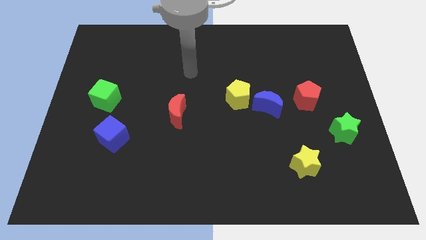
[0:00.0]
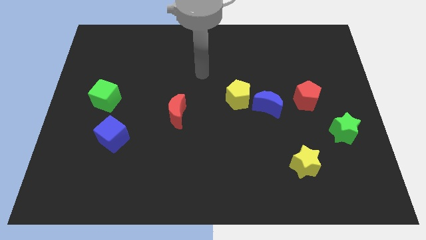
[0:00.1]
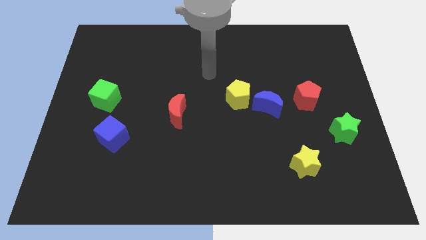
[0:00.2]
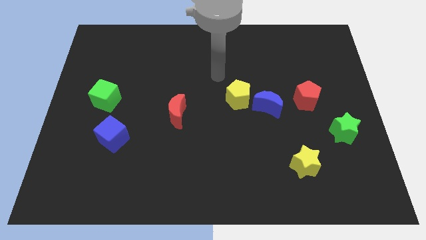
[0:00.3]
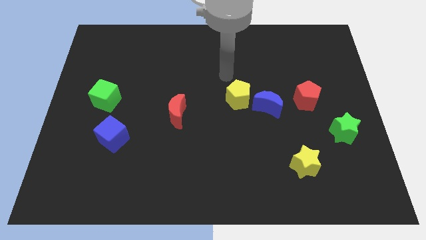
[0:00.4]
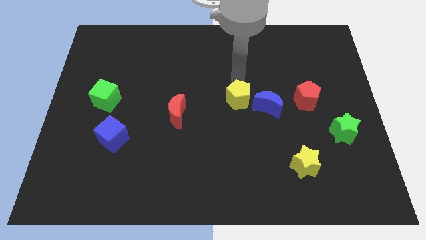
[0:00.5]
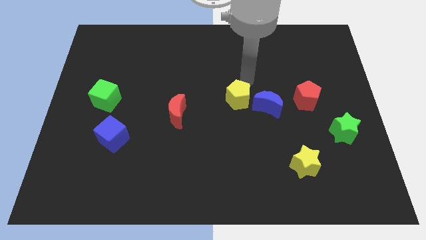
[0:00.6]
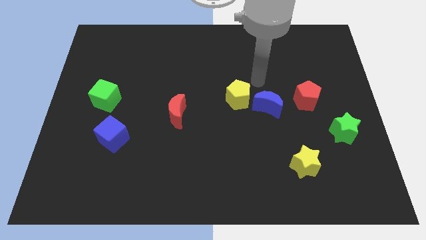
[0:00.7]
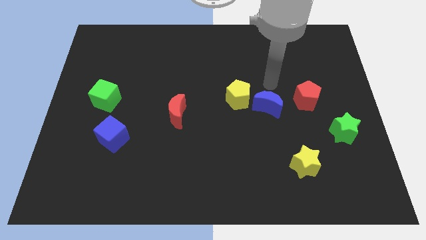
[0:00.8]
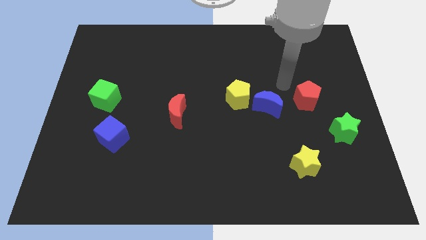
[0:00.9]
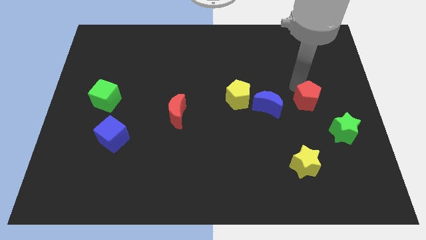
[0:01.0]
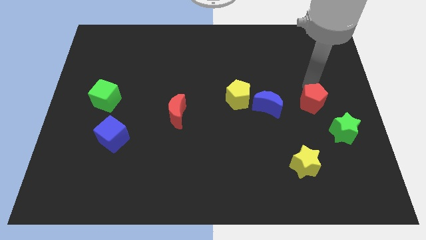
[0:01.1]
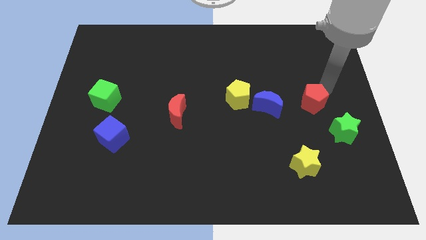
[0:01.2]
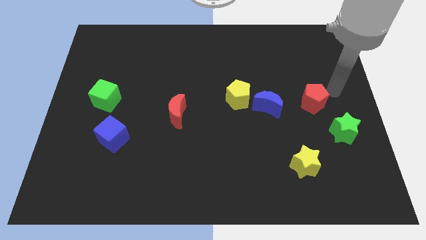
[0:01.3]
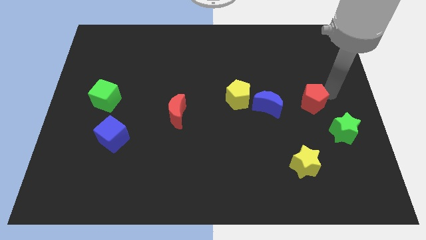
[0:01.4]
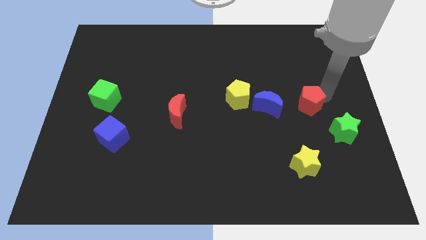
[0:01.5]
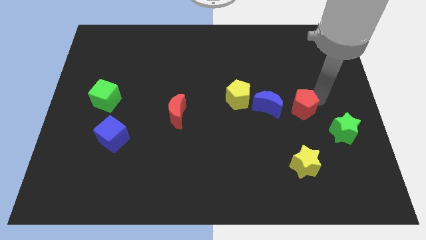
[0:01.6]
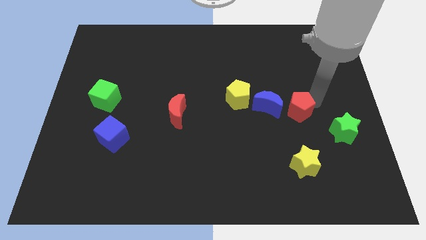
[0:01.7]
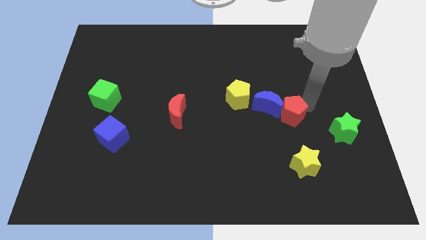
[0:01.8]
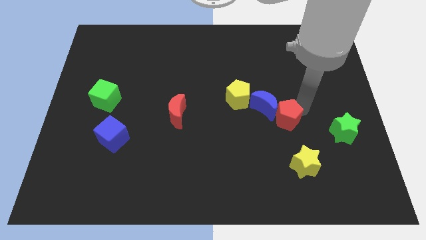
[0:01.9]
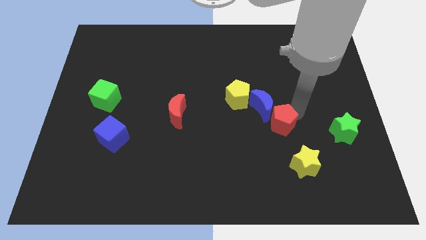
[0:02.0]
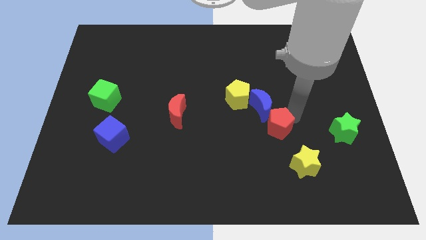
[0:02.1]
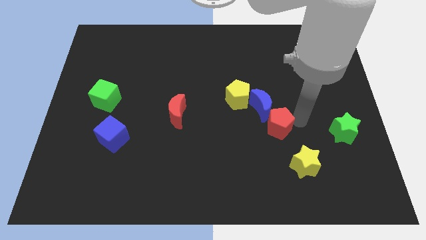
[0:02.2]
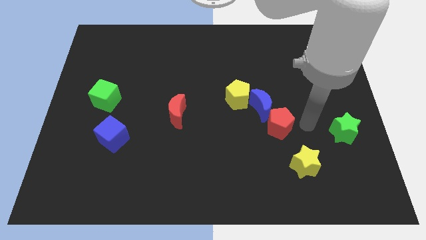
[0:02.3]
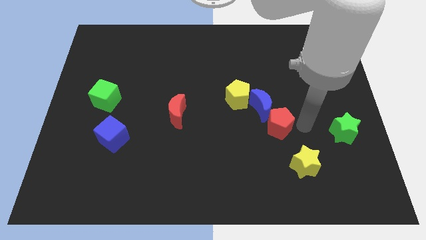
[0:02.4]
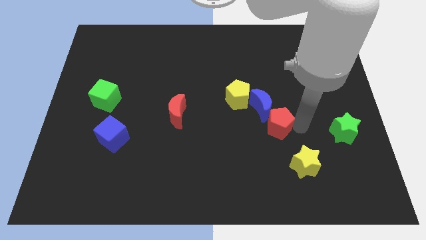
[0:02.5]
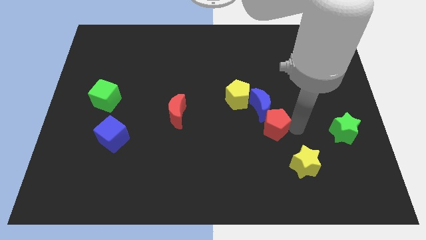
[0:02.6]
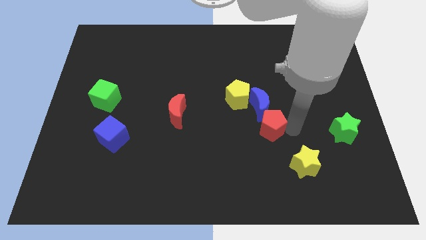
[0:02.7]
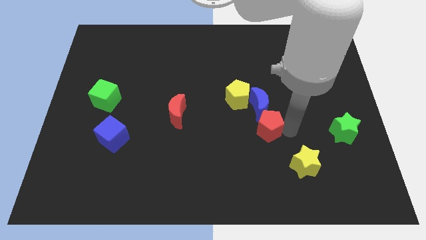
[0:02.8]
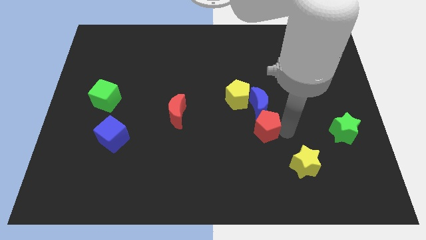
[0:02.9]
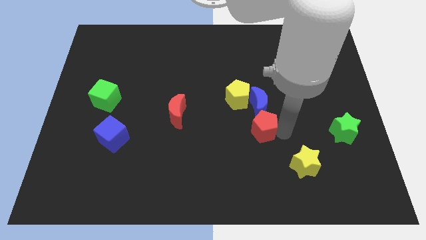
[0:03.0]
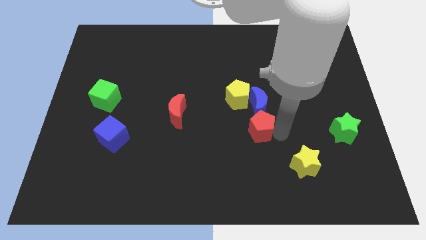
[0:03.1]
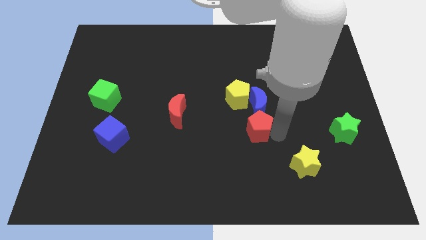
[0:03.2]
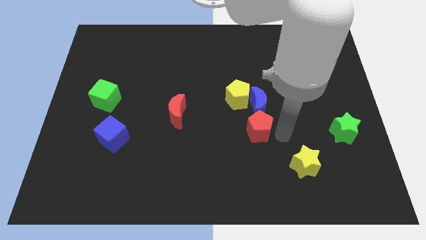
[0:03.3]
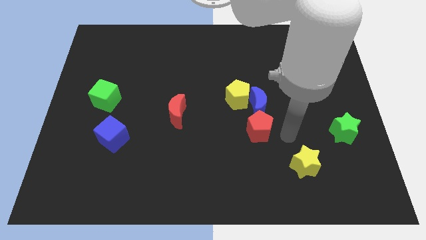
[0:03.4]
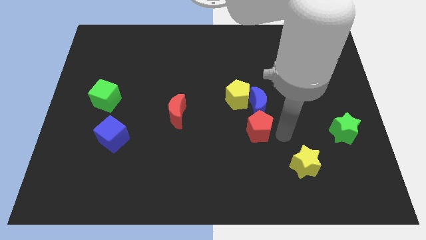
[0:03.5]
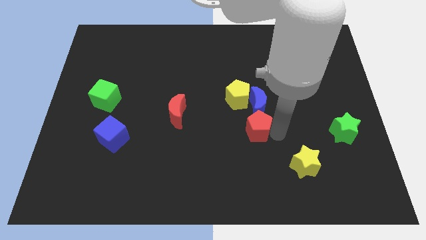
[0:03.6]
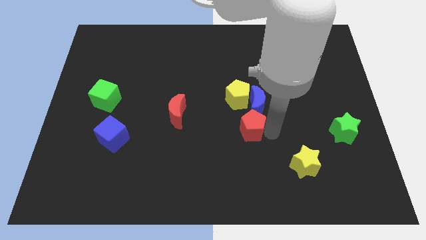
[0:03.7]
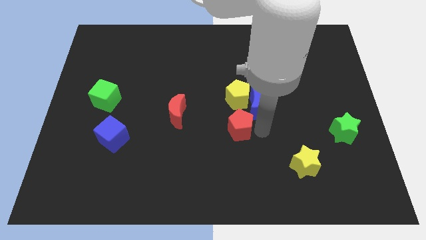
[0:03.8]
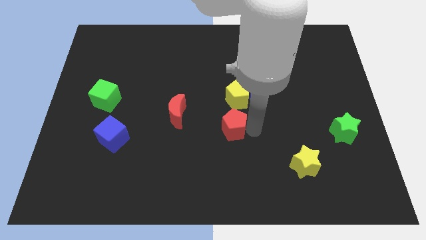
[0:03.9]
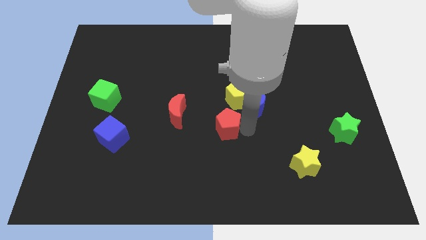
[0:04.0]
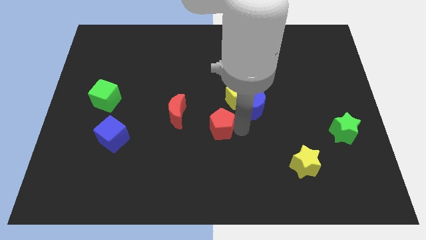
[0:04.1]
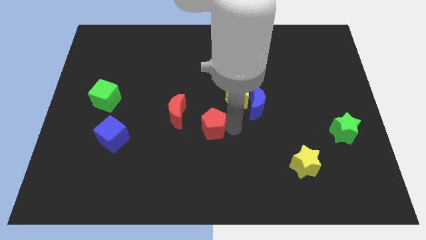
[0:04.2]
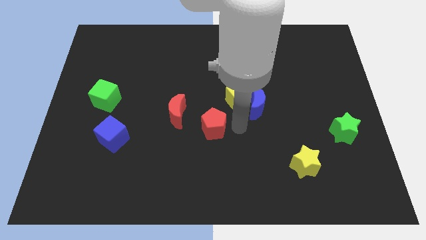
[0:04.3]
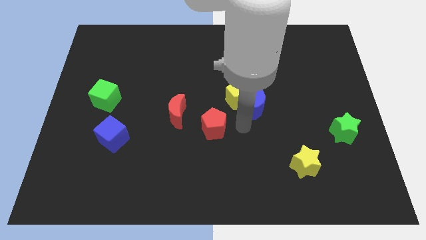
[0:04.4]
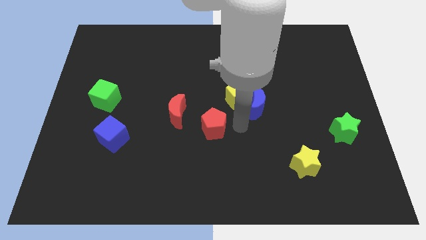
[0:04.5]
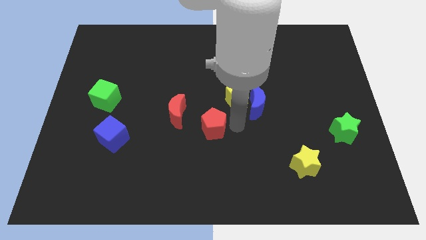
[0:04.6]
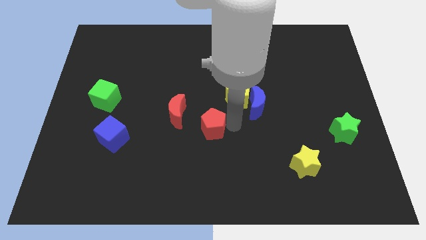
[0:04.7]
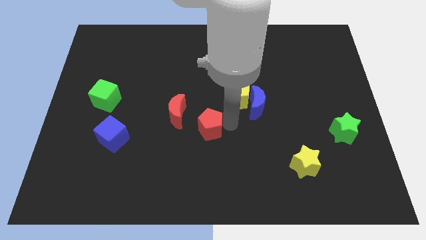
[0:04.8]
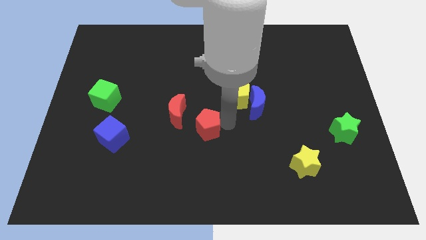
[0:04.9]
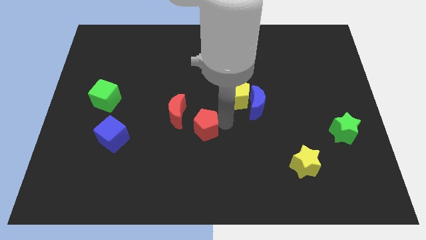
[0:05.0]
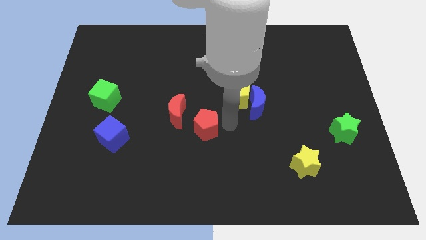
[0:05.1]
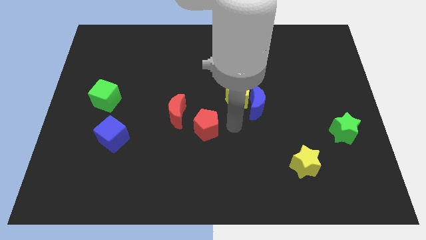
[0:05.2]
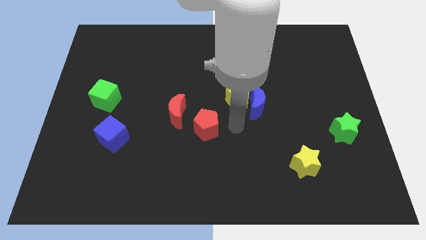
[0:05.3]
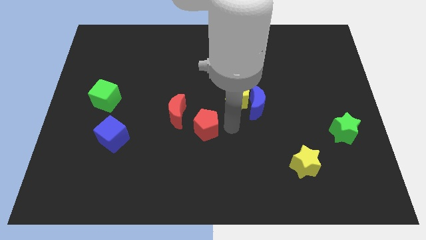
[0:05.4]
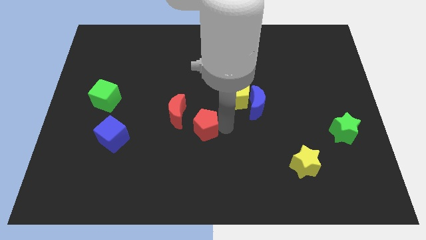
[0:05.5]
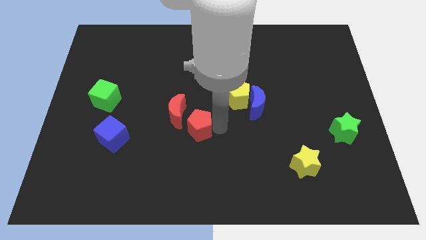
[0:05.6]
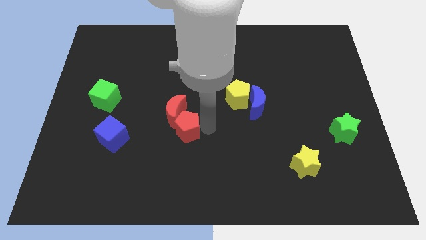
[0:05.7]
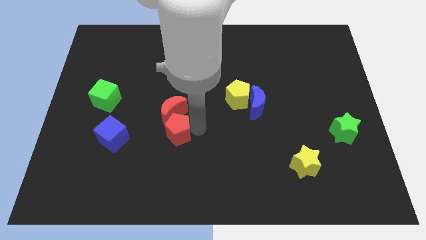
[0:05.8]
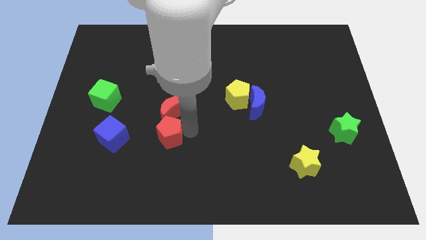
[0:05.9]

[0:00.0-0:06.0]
put the red pentagon to the bottom left of the red moon
